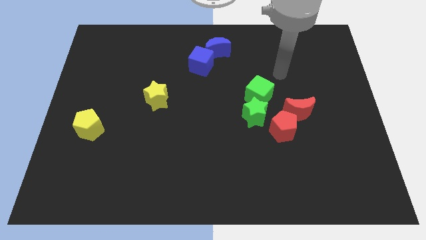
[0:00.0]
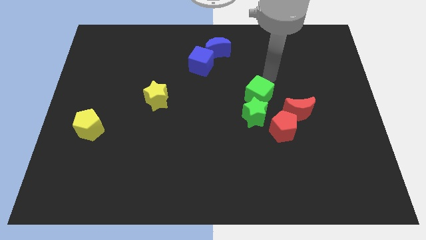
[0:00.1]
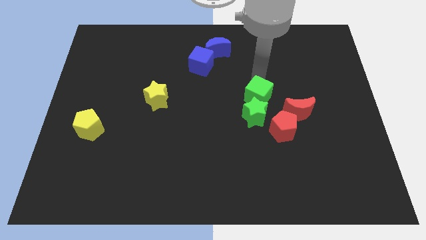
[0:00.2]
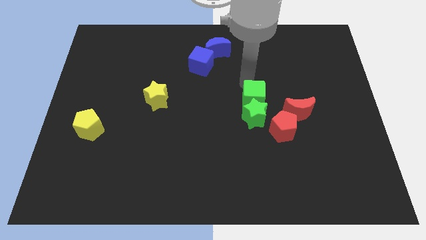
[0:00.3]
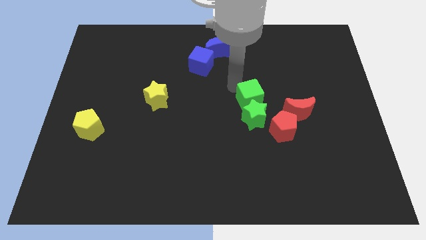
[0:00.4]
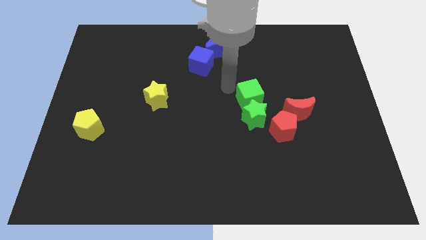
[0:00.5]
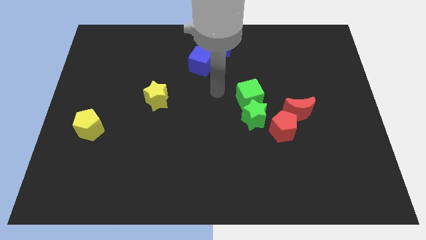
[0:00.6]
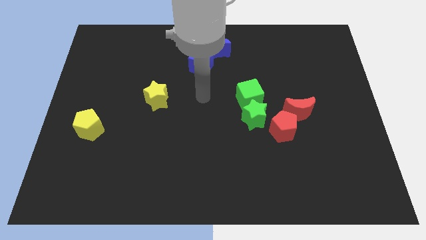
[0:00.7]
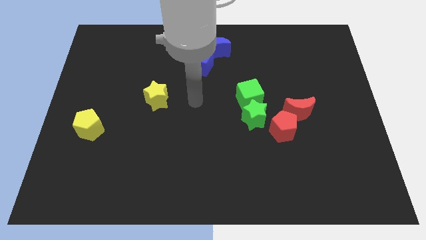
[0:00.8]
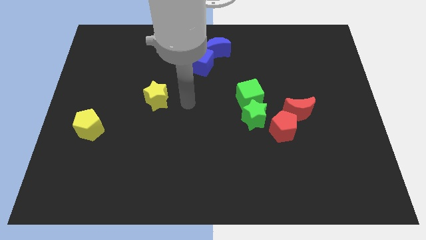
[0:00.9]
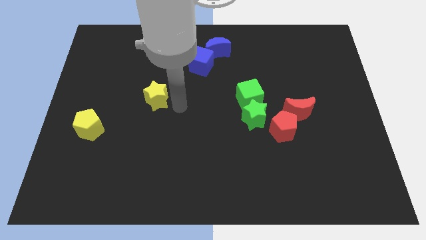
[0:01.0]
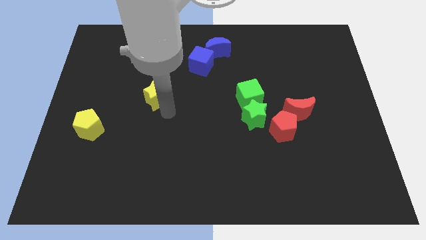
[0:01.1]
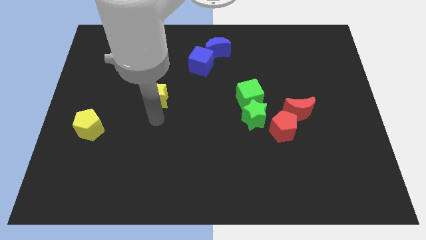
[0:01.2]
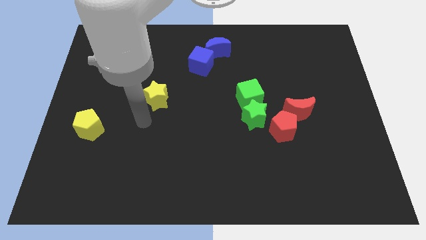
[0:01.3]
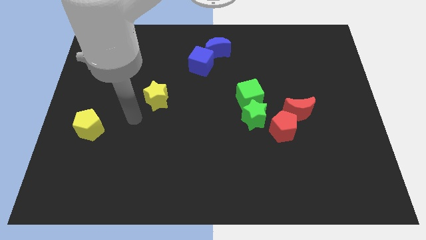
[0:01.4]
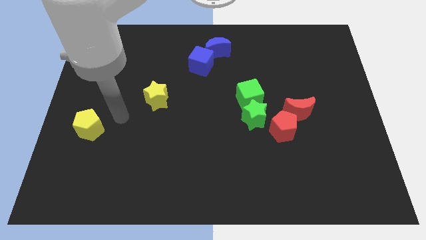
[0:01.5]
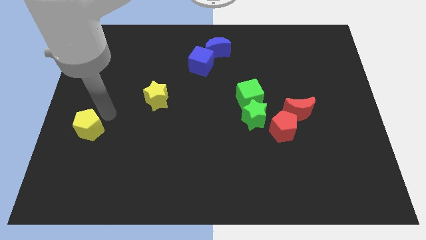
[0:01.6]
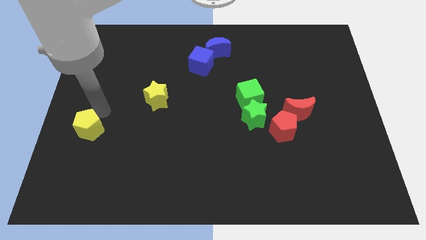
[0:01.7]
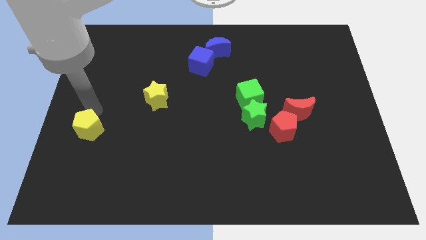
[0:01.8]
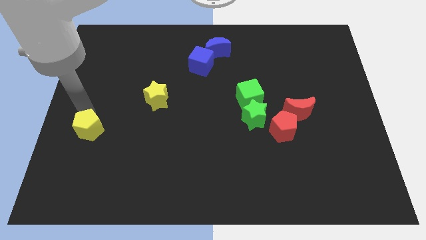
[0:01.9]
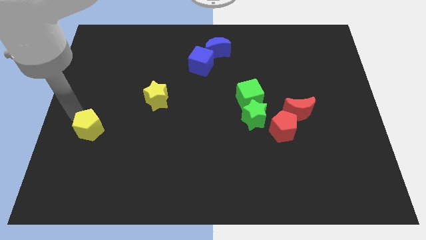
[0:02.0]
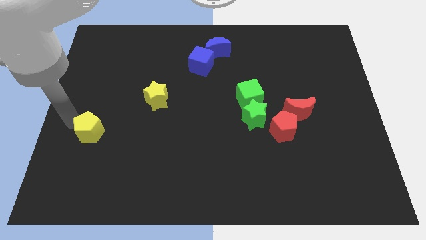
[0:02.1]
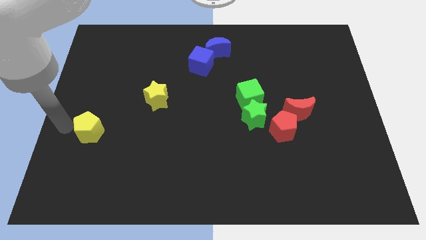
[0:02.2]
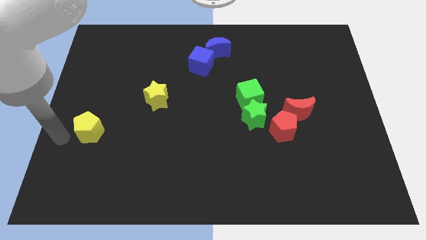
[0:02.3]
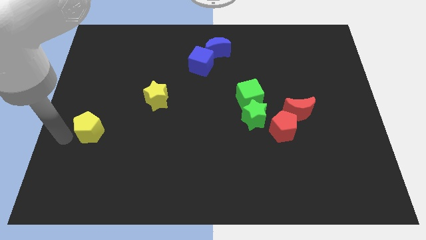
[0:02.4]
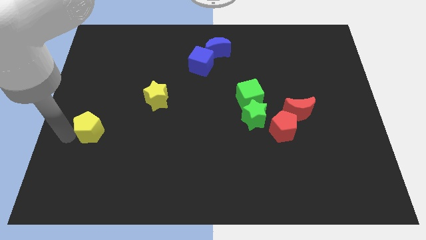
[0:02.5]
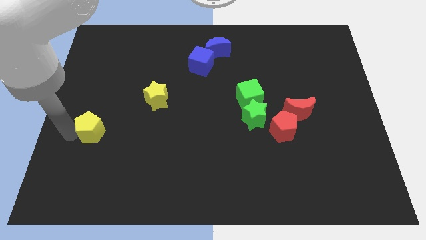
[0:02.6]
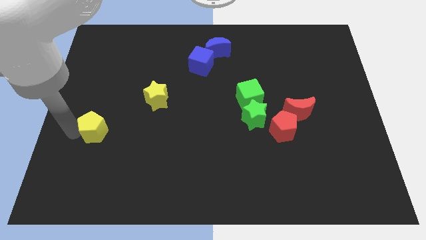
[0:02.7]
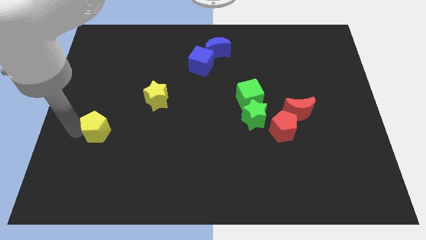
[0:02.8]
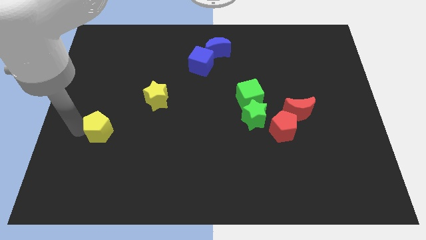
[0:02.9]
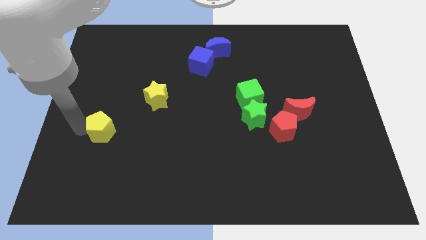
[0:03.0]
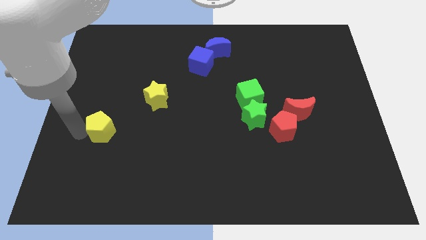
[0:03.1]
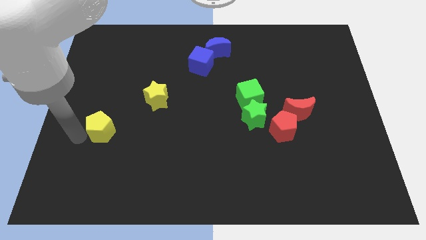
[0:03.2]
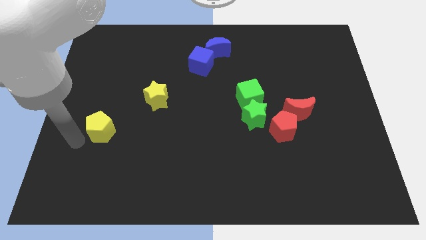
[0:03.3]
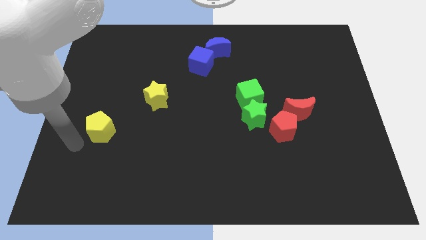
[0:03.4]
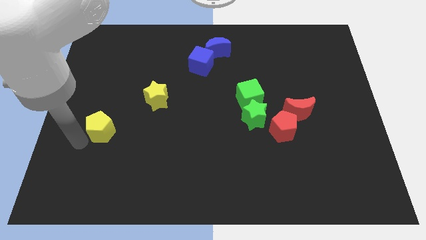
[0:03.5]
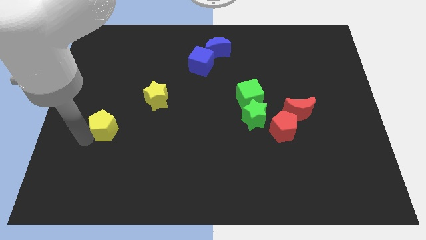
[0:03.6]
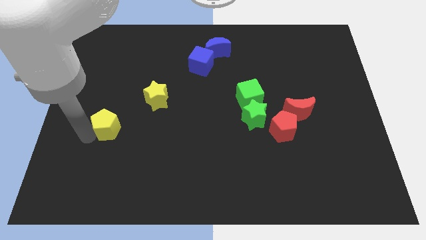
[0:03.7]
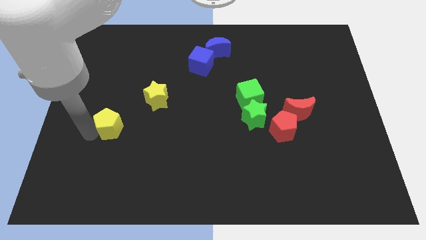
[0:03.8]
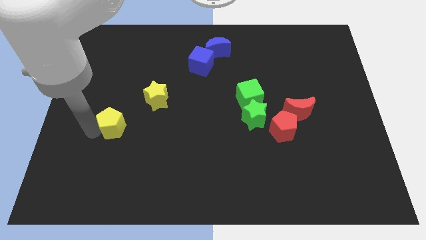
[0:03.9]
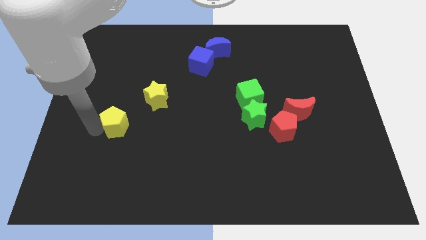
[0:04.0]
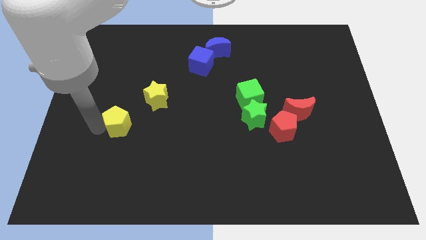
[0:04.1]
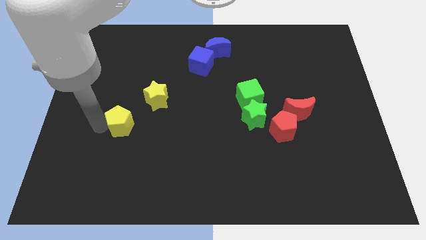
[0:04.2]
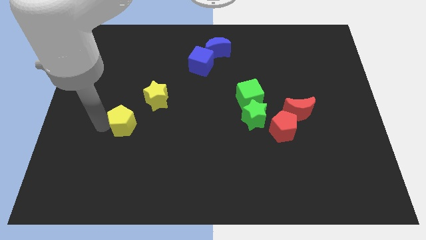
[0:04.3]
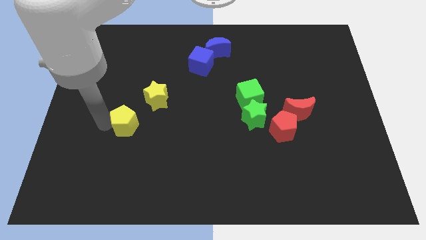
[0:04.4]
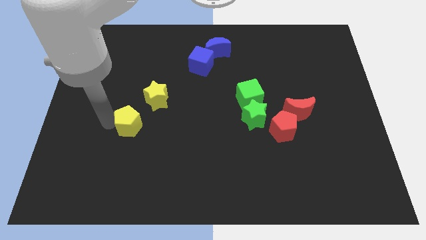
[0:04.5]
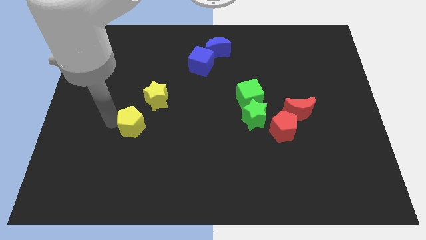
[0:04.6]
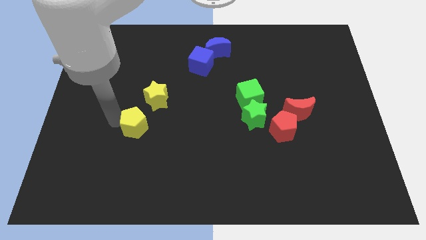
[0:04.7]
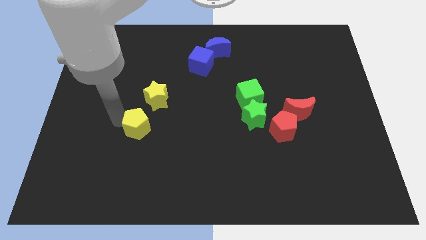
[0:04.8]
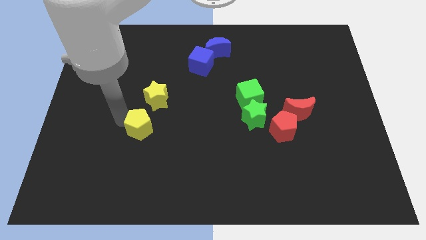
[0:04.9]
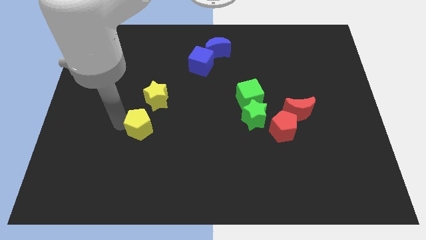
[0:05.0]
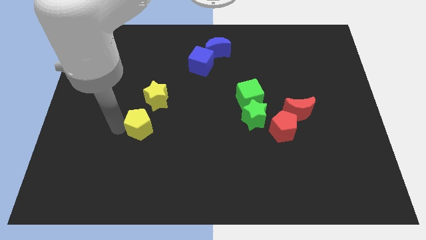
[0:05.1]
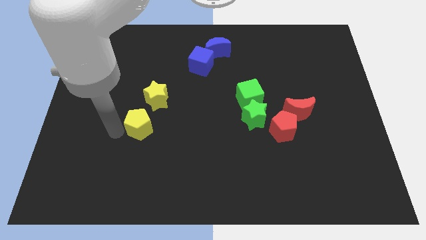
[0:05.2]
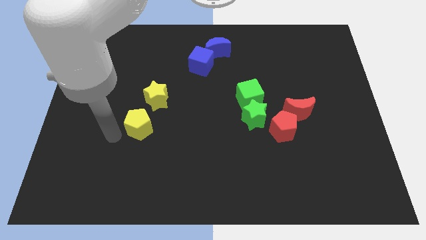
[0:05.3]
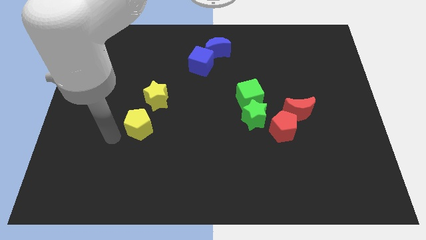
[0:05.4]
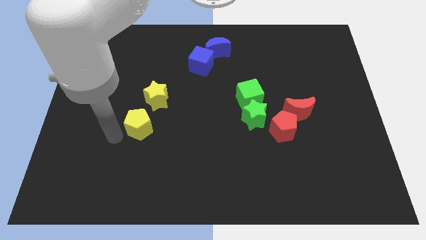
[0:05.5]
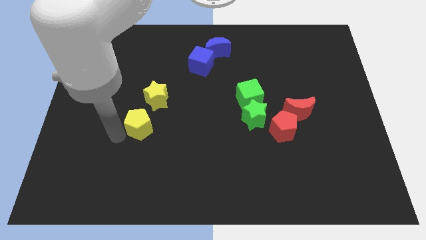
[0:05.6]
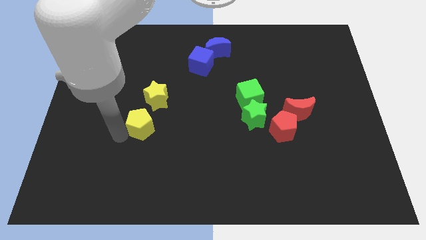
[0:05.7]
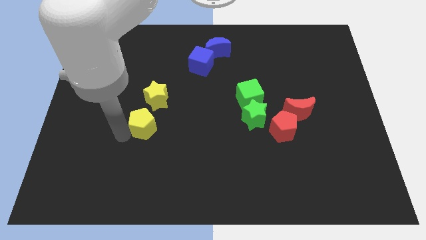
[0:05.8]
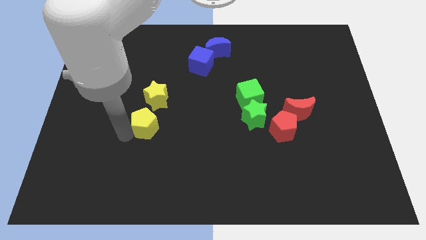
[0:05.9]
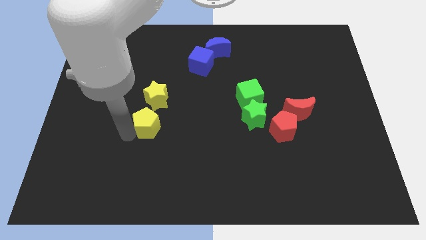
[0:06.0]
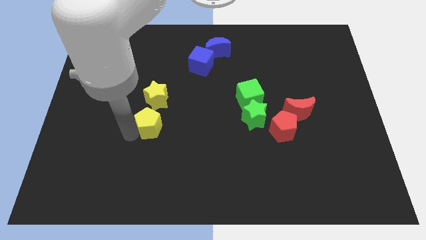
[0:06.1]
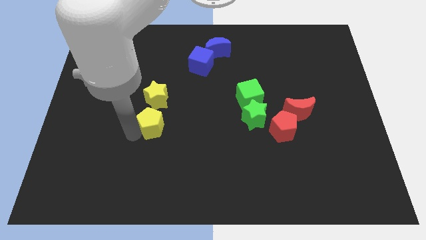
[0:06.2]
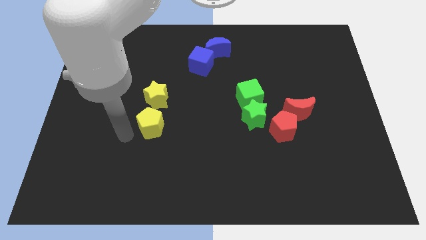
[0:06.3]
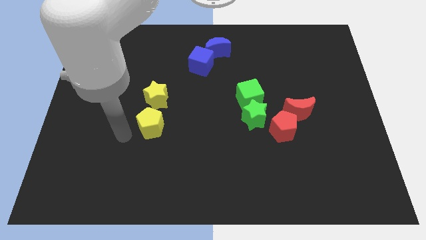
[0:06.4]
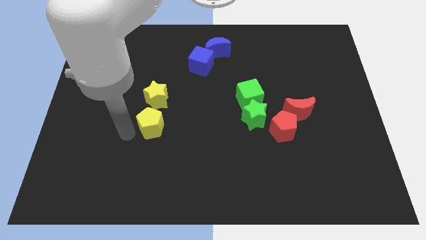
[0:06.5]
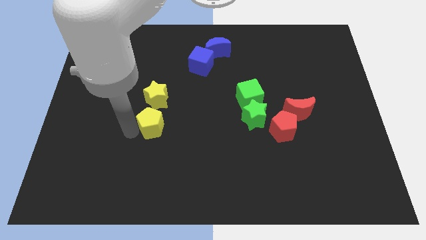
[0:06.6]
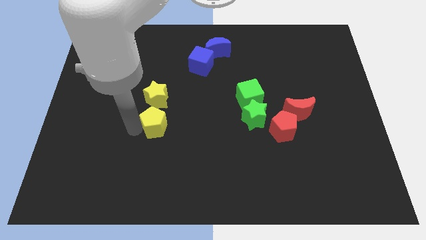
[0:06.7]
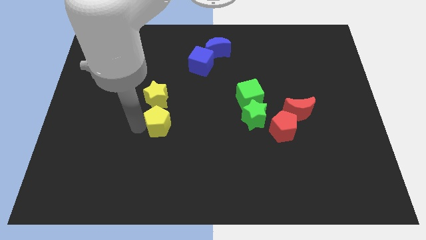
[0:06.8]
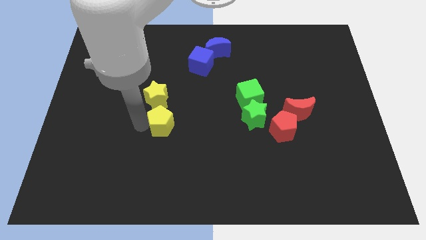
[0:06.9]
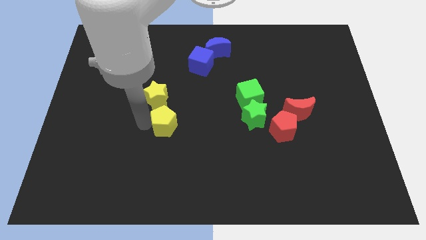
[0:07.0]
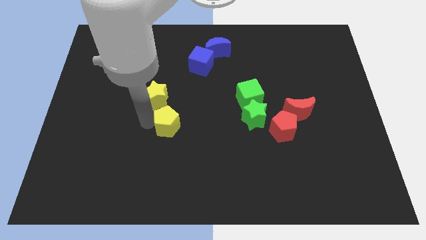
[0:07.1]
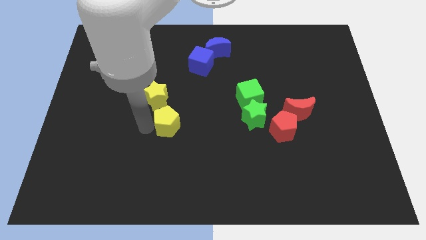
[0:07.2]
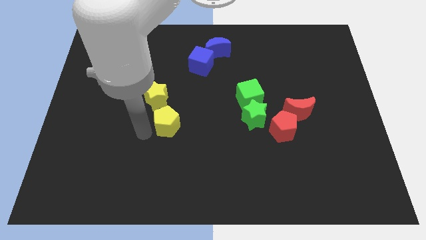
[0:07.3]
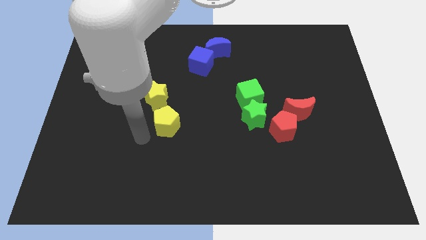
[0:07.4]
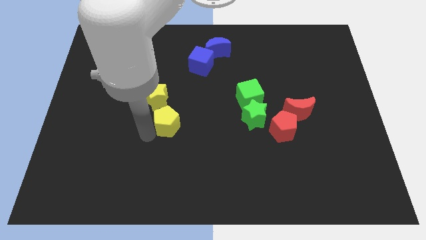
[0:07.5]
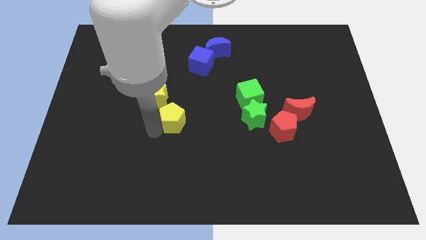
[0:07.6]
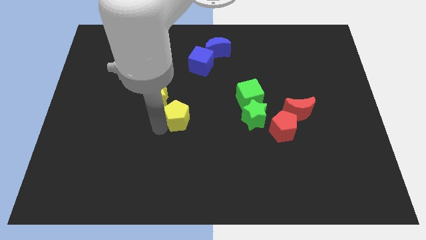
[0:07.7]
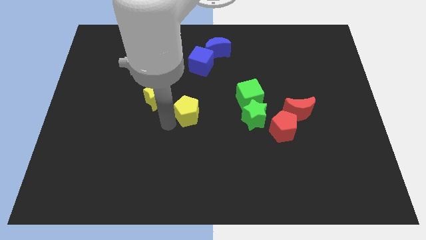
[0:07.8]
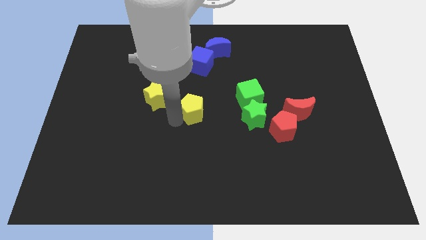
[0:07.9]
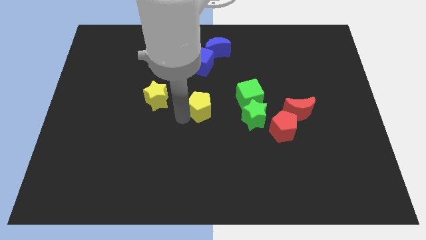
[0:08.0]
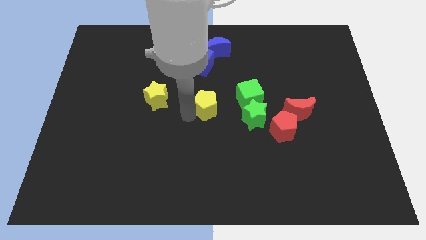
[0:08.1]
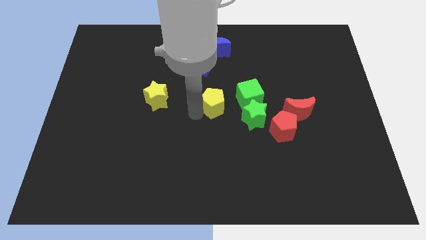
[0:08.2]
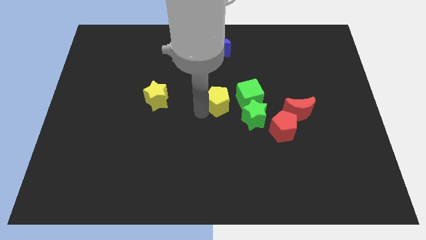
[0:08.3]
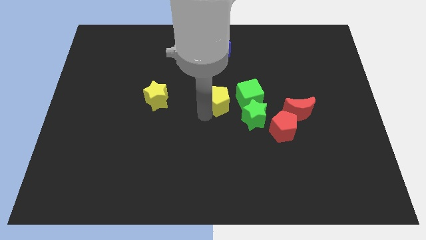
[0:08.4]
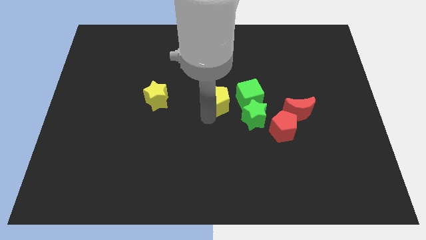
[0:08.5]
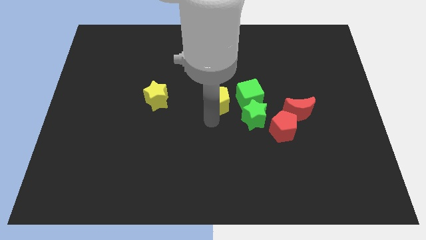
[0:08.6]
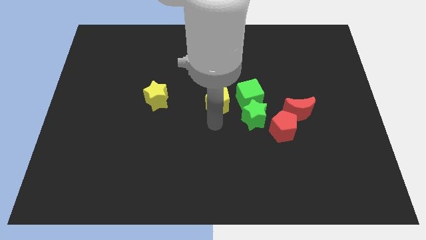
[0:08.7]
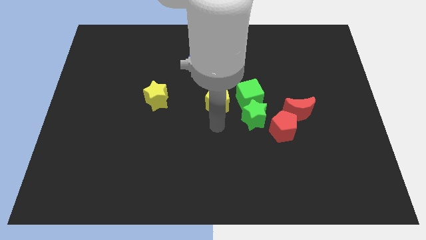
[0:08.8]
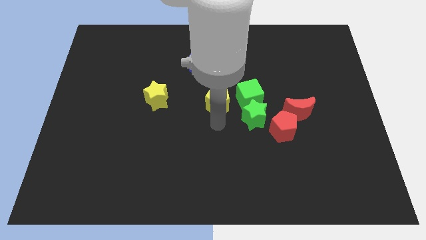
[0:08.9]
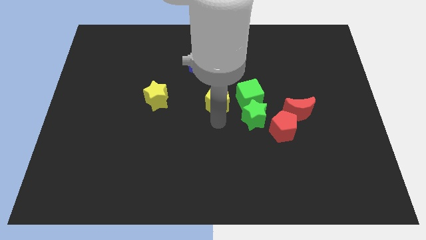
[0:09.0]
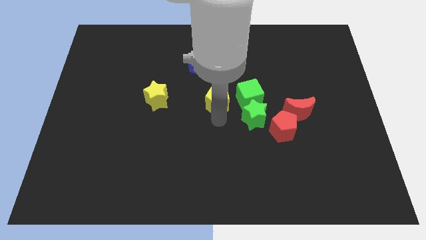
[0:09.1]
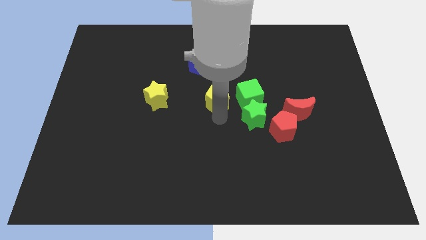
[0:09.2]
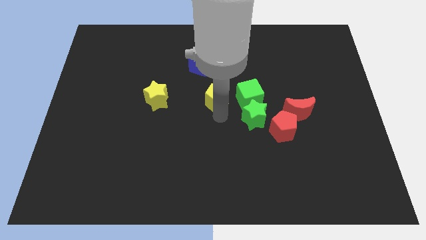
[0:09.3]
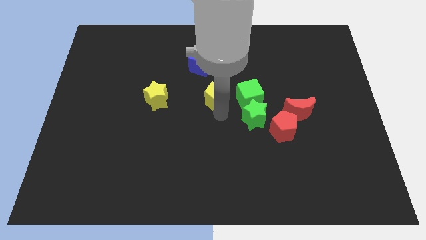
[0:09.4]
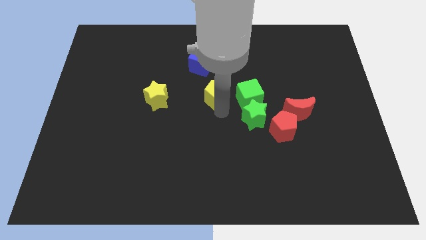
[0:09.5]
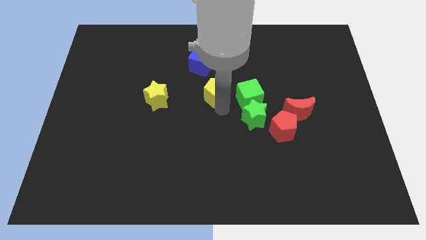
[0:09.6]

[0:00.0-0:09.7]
push the yellow pentagon to the top left of the green cube
